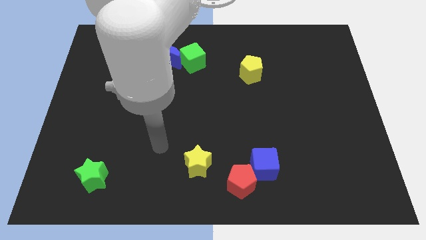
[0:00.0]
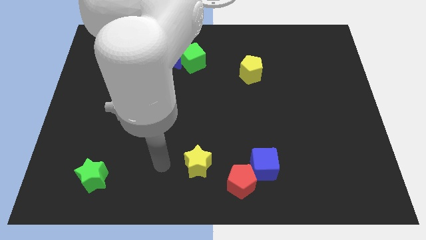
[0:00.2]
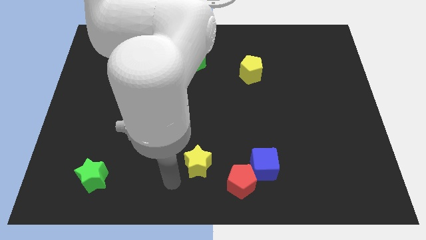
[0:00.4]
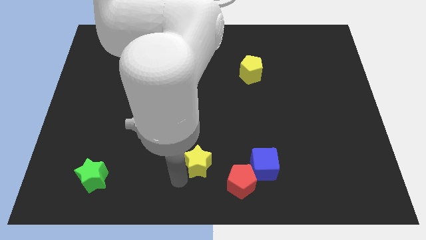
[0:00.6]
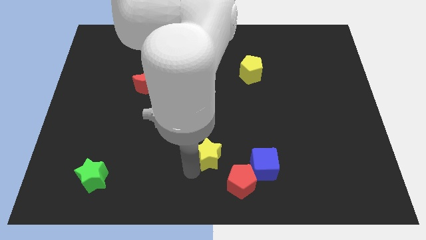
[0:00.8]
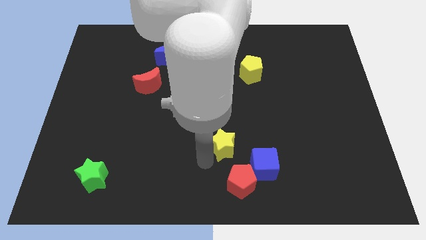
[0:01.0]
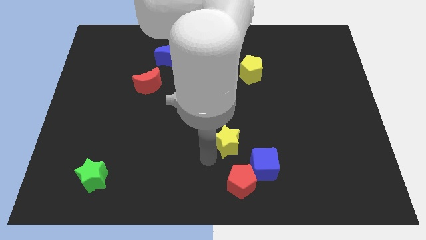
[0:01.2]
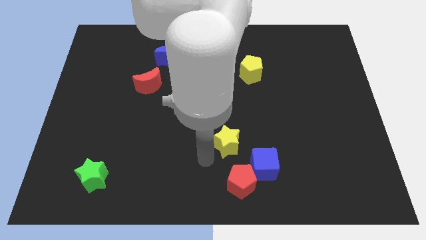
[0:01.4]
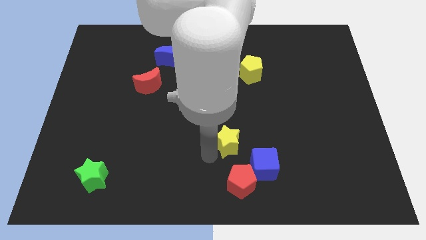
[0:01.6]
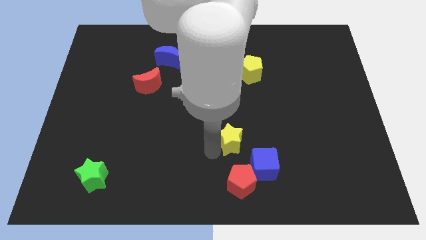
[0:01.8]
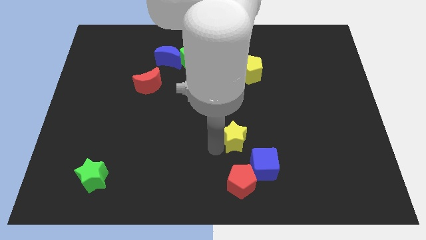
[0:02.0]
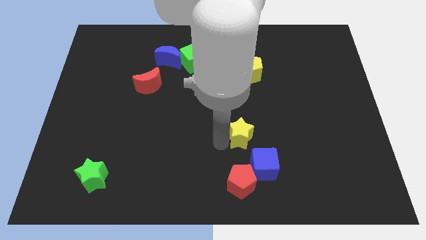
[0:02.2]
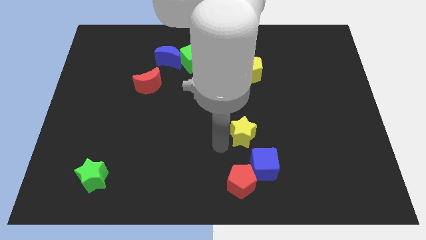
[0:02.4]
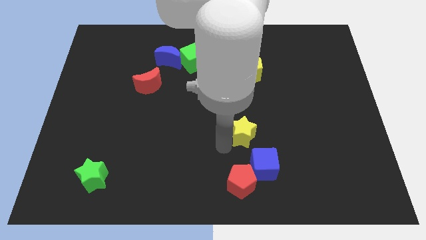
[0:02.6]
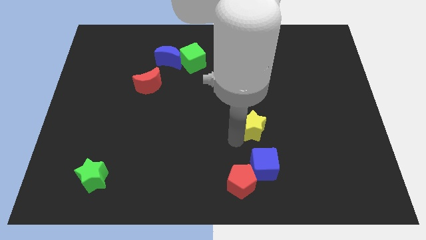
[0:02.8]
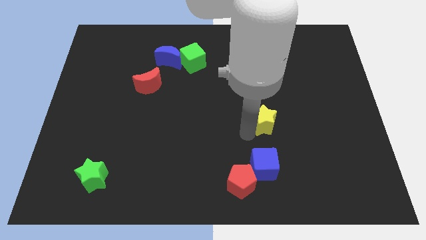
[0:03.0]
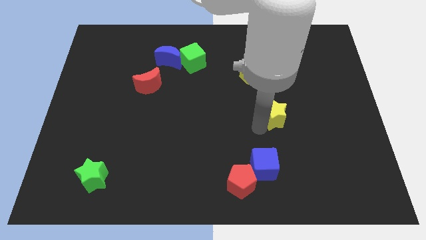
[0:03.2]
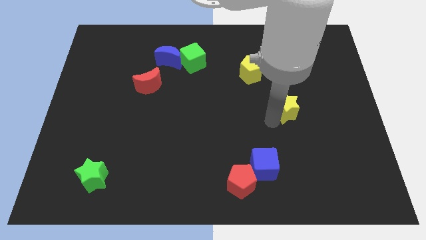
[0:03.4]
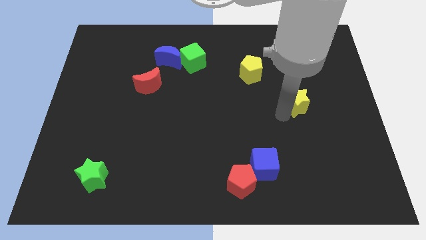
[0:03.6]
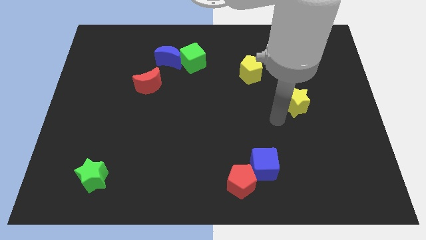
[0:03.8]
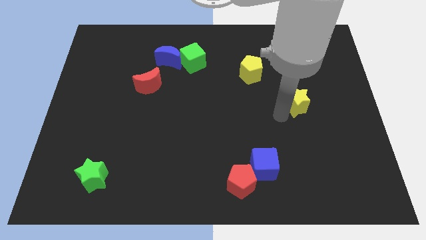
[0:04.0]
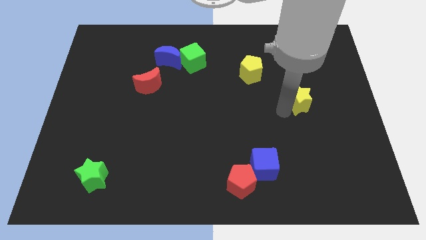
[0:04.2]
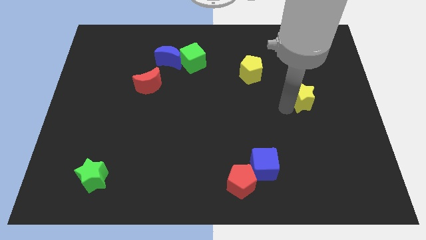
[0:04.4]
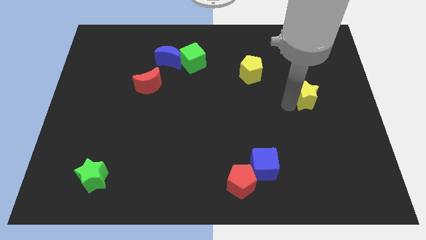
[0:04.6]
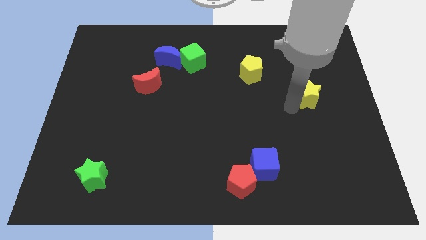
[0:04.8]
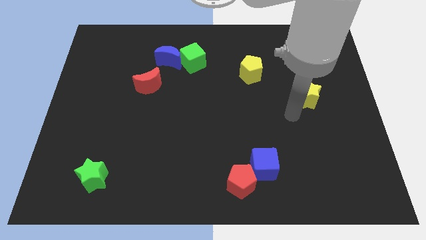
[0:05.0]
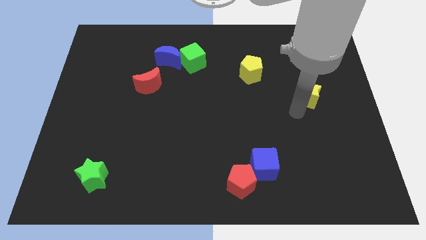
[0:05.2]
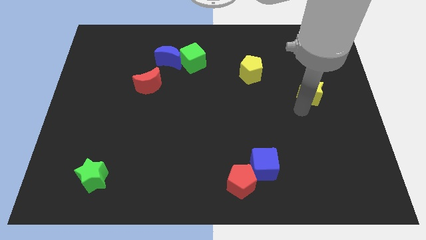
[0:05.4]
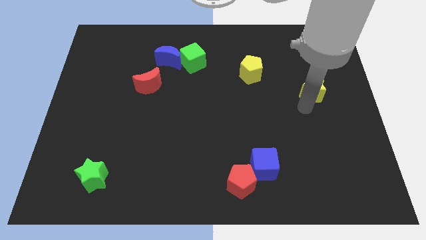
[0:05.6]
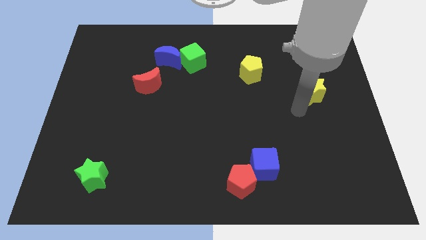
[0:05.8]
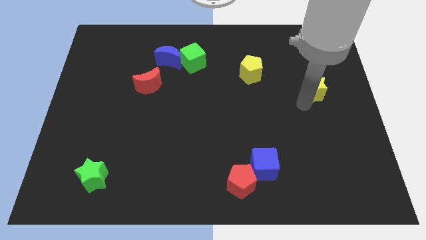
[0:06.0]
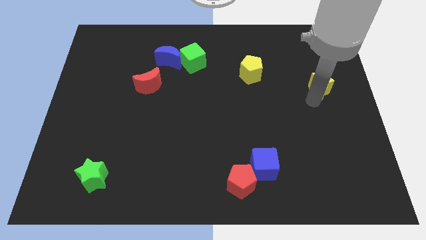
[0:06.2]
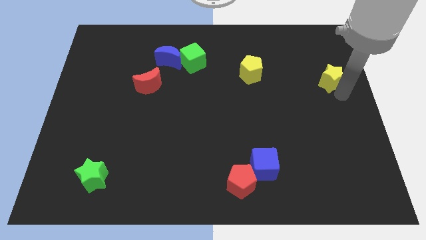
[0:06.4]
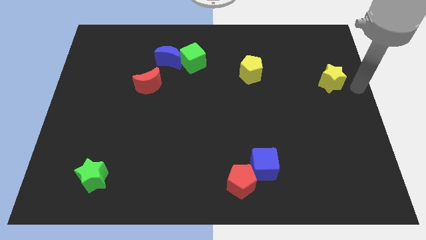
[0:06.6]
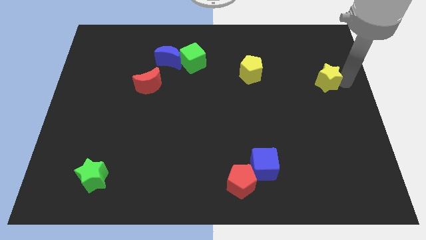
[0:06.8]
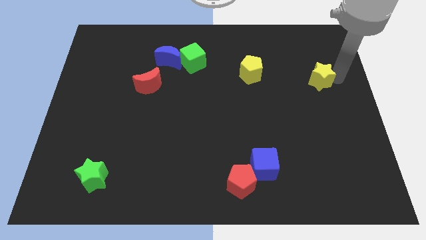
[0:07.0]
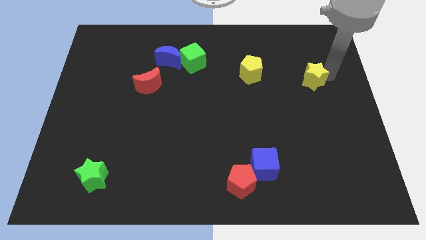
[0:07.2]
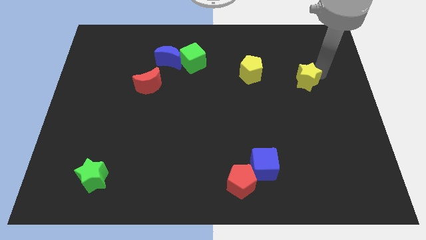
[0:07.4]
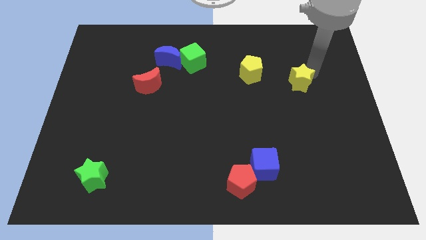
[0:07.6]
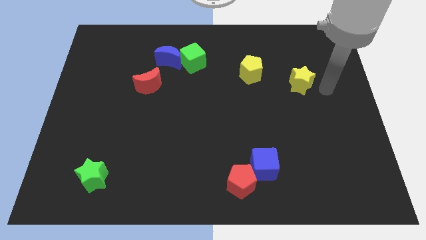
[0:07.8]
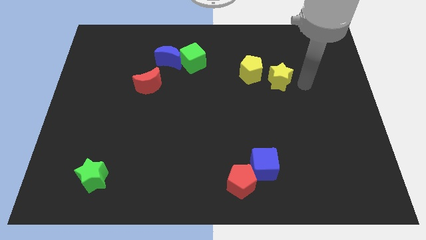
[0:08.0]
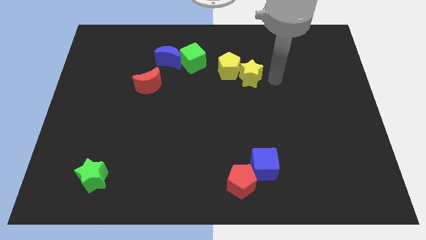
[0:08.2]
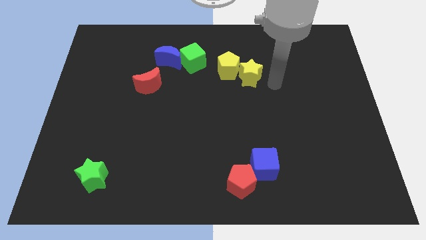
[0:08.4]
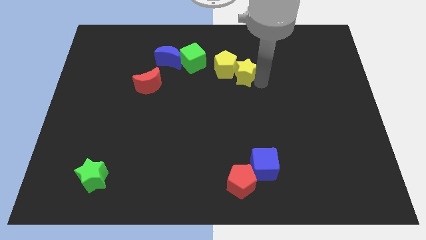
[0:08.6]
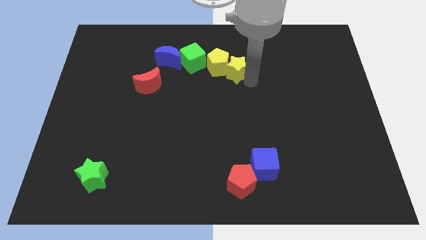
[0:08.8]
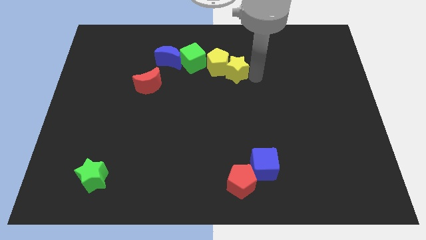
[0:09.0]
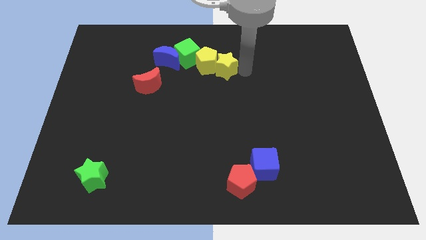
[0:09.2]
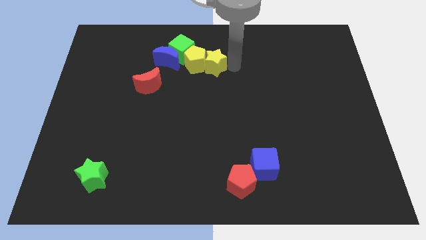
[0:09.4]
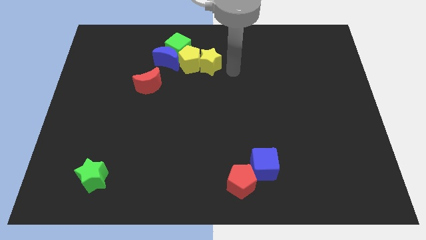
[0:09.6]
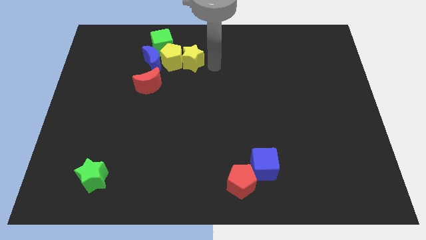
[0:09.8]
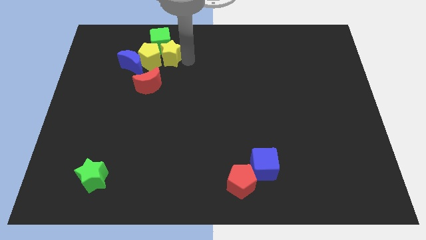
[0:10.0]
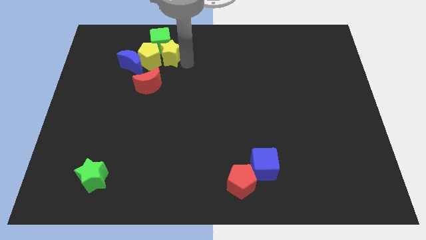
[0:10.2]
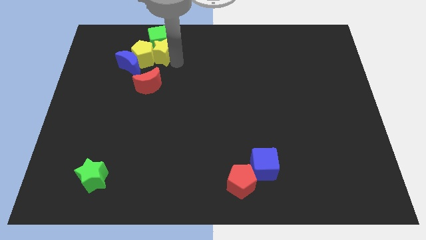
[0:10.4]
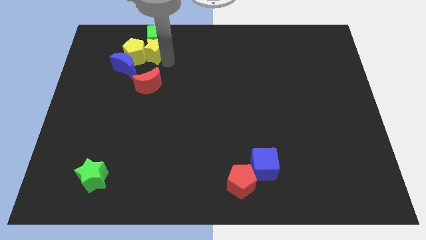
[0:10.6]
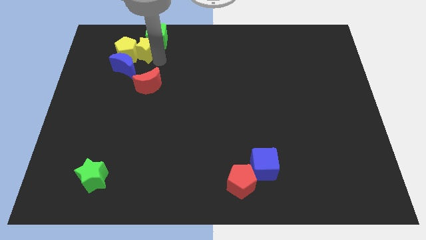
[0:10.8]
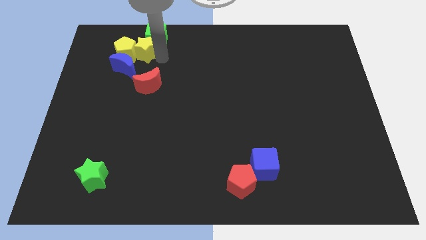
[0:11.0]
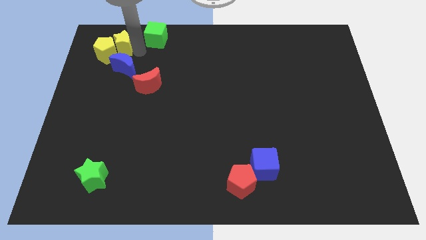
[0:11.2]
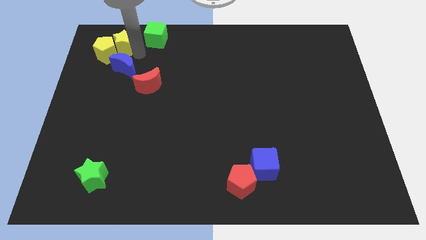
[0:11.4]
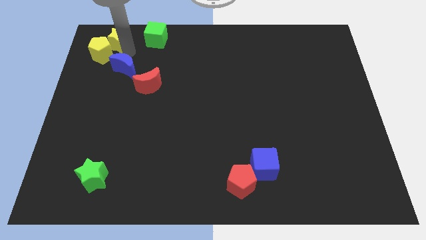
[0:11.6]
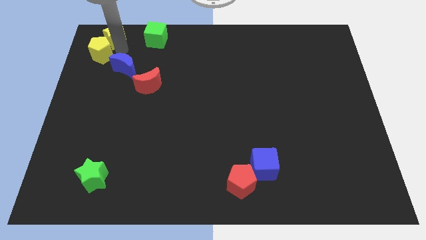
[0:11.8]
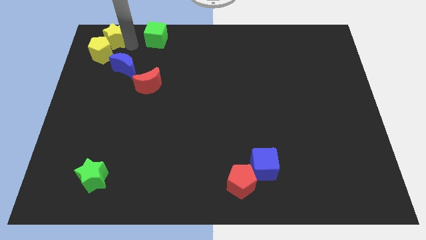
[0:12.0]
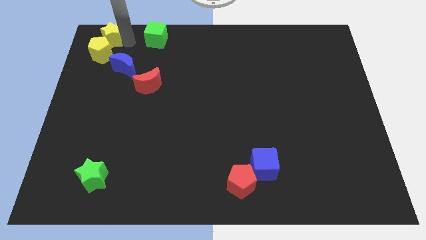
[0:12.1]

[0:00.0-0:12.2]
slide the yellow star to the upper left corner
